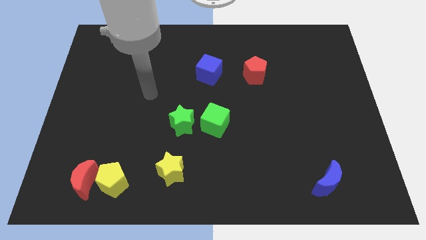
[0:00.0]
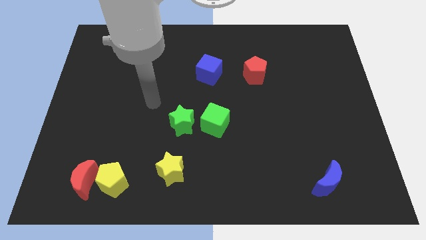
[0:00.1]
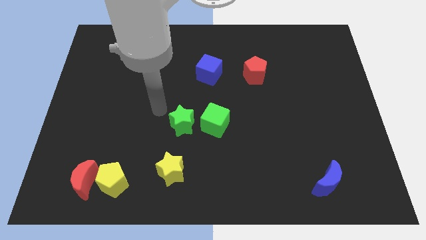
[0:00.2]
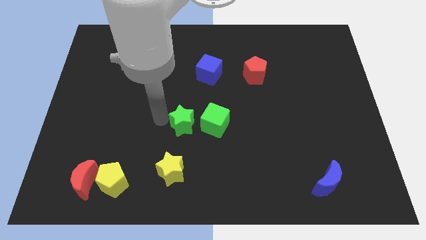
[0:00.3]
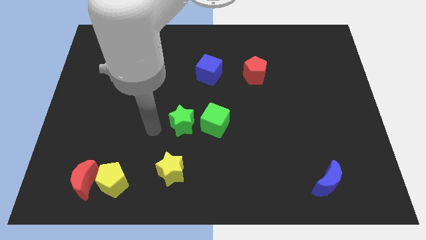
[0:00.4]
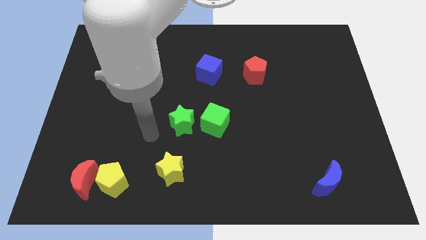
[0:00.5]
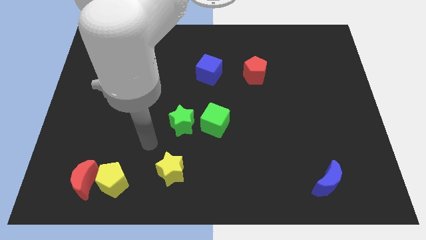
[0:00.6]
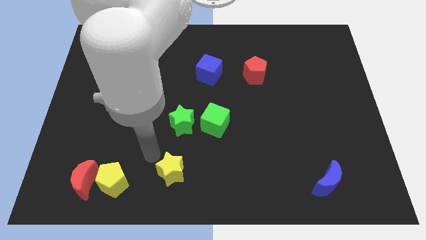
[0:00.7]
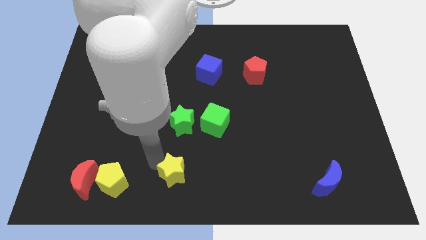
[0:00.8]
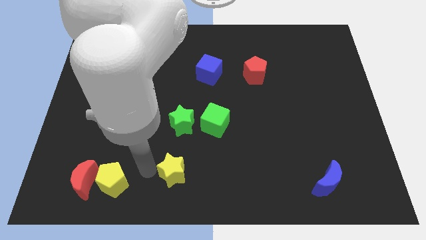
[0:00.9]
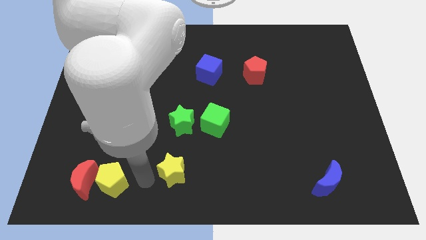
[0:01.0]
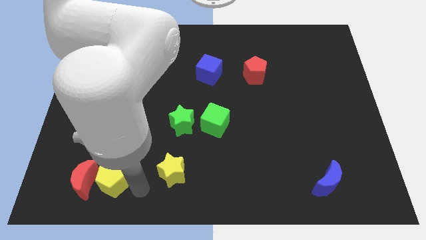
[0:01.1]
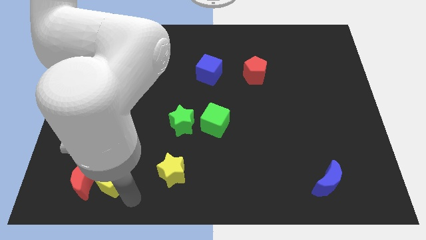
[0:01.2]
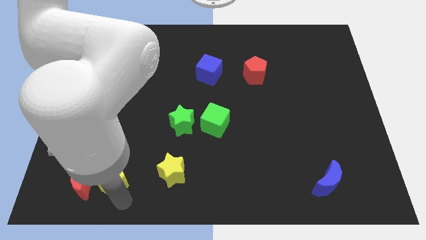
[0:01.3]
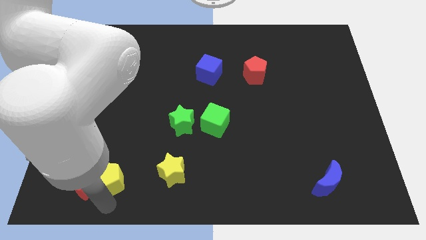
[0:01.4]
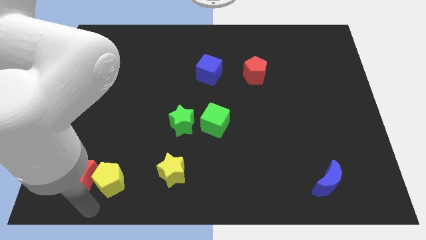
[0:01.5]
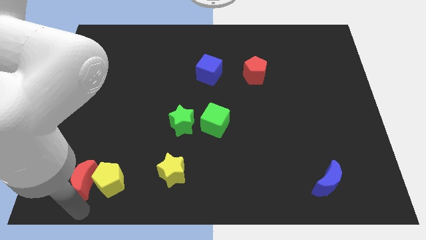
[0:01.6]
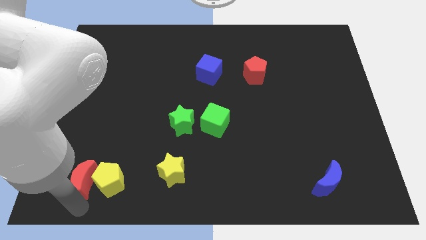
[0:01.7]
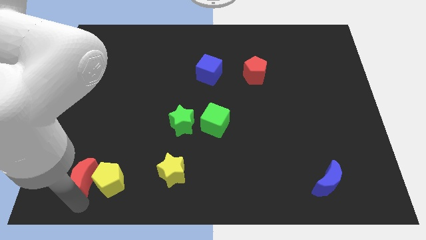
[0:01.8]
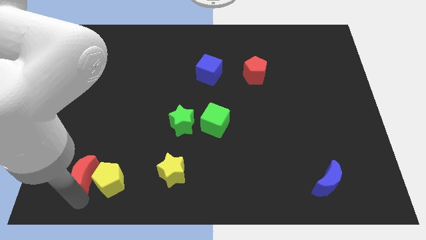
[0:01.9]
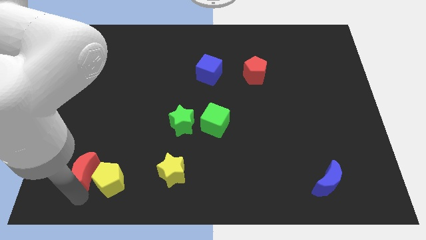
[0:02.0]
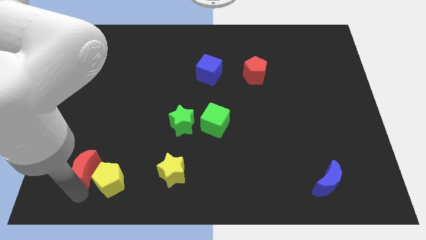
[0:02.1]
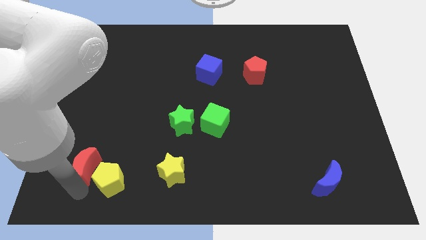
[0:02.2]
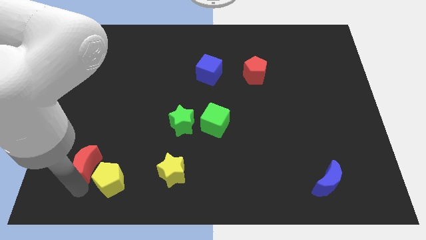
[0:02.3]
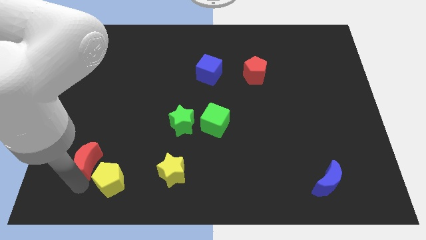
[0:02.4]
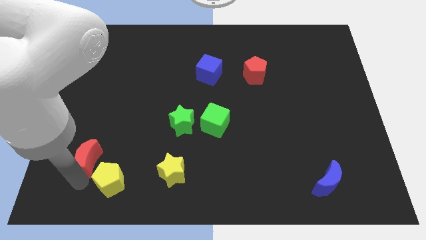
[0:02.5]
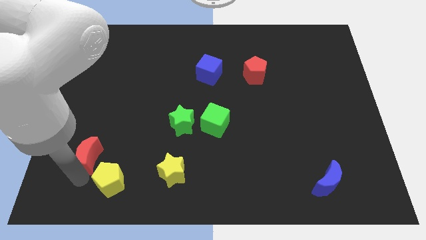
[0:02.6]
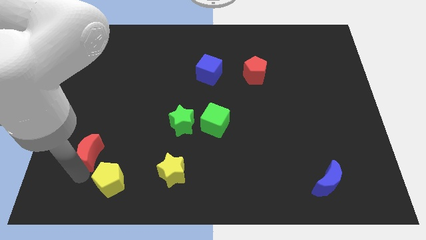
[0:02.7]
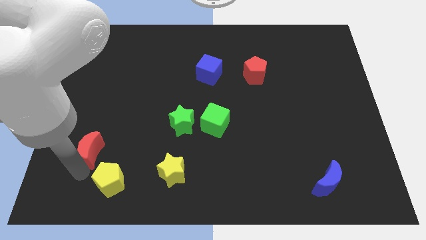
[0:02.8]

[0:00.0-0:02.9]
slightly slide the red moon up

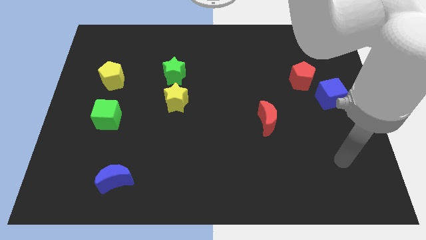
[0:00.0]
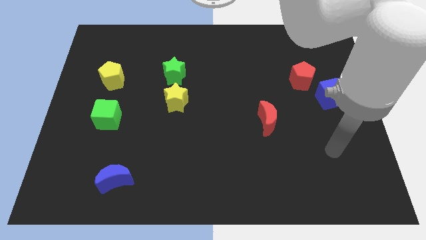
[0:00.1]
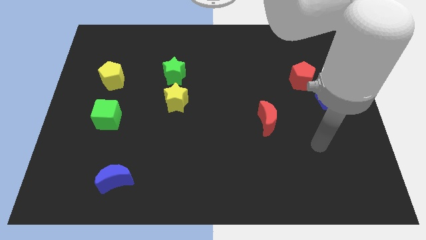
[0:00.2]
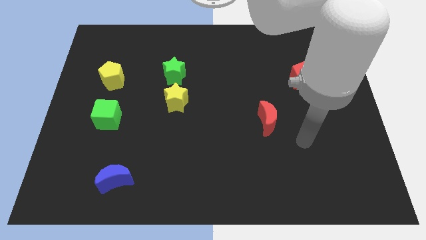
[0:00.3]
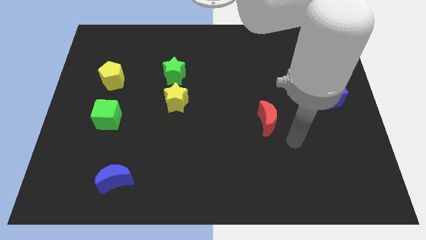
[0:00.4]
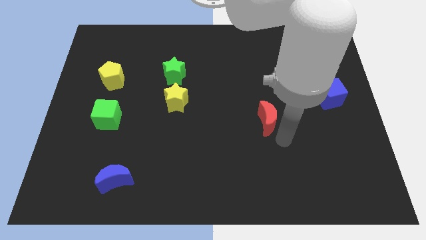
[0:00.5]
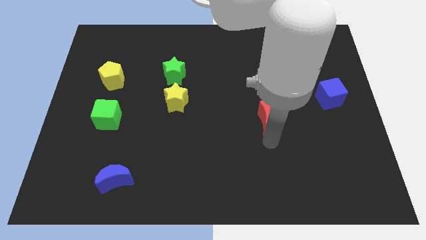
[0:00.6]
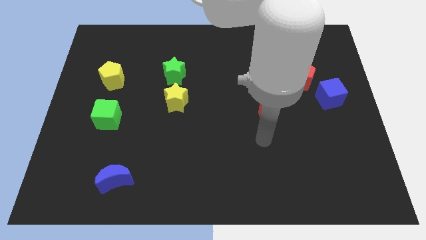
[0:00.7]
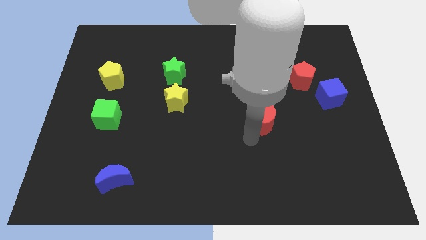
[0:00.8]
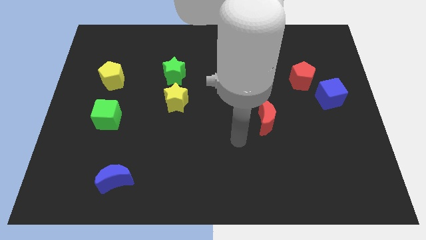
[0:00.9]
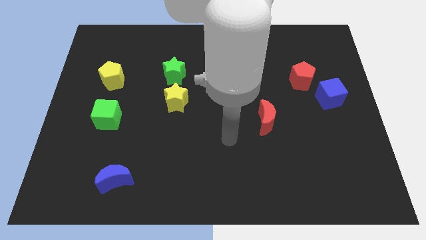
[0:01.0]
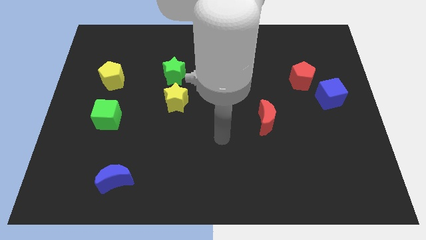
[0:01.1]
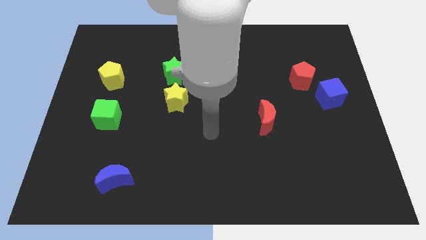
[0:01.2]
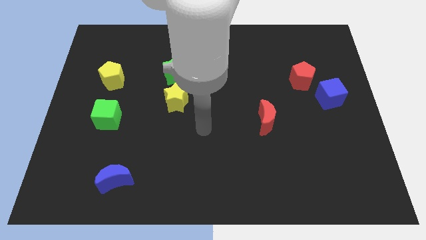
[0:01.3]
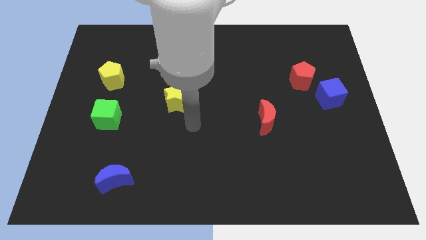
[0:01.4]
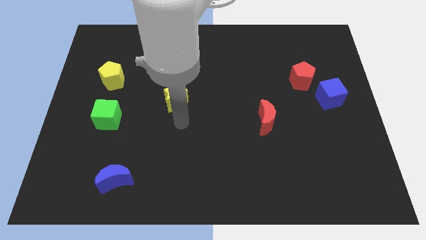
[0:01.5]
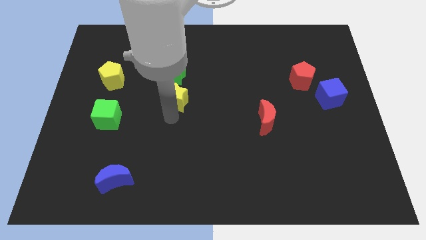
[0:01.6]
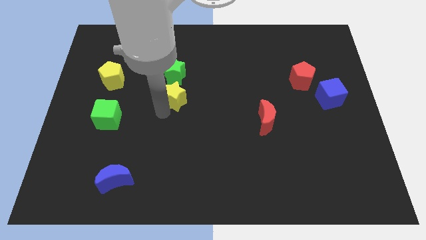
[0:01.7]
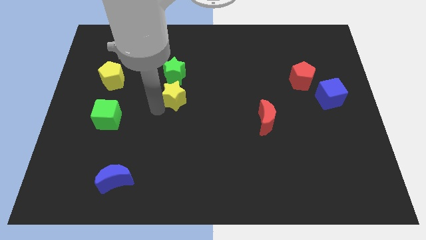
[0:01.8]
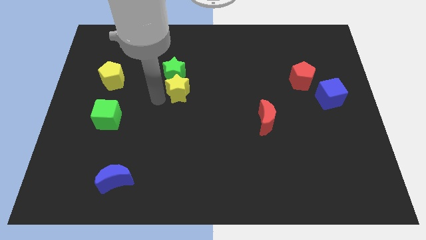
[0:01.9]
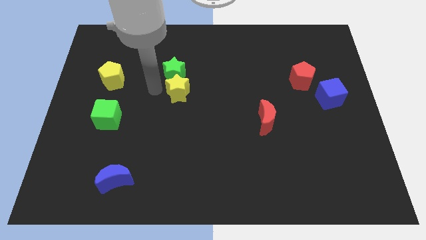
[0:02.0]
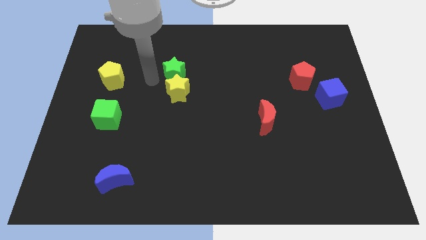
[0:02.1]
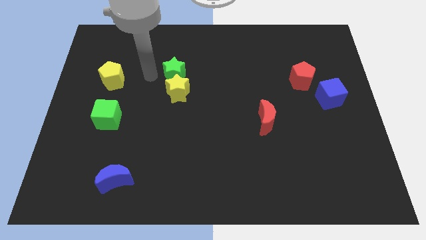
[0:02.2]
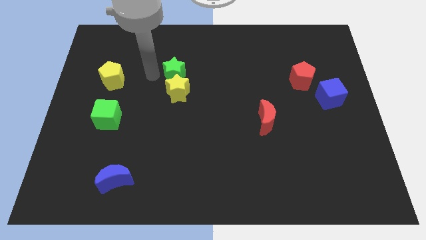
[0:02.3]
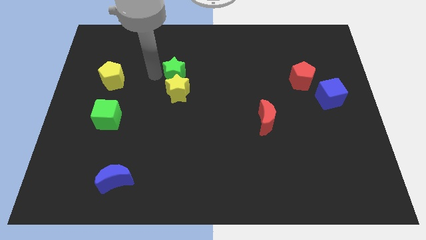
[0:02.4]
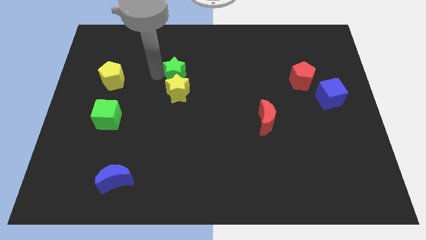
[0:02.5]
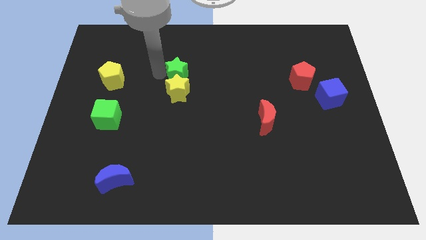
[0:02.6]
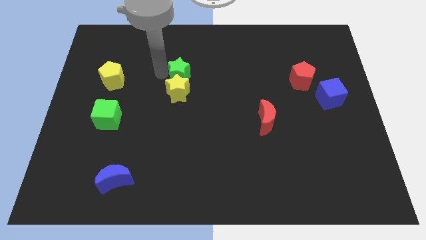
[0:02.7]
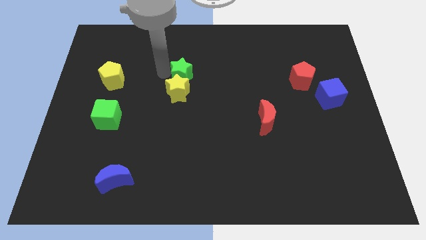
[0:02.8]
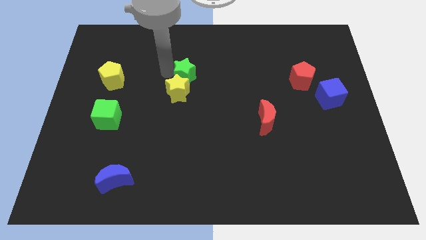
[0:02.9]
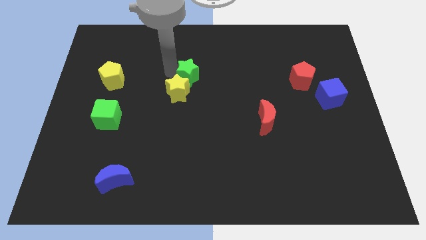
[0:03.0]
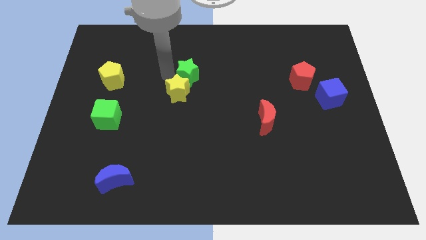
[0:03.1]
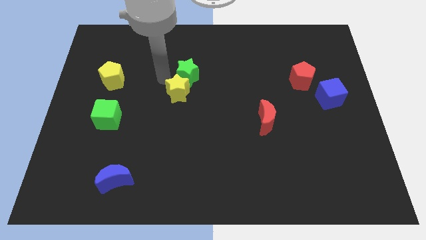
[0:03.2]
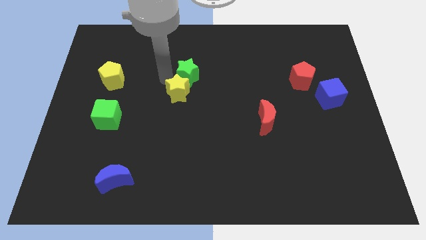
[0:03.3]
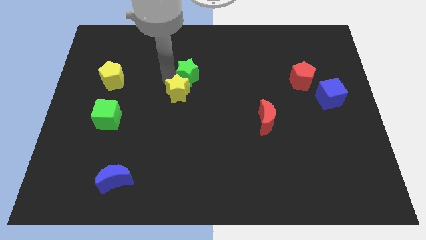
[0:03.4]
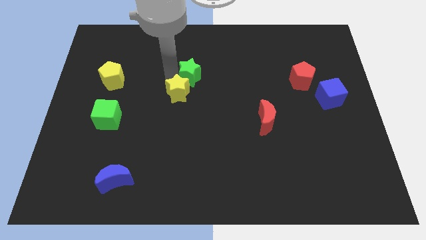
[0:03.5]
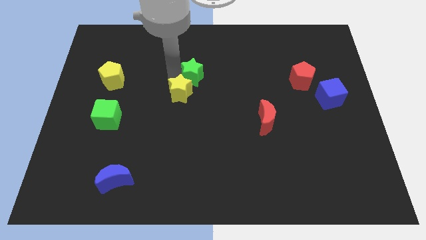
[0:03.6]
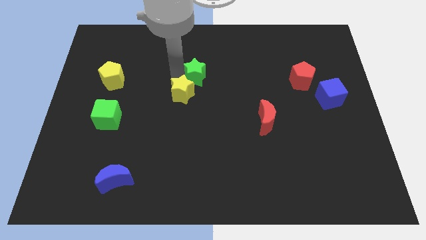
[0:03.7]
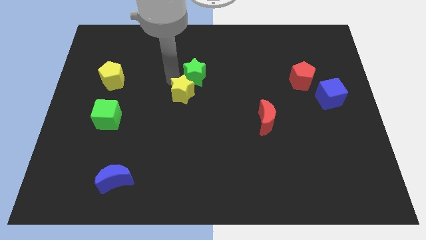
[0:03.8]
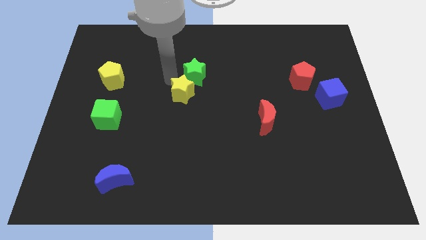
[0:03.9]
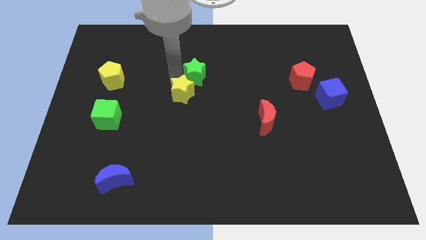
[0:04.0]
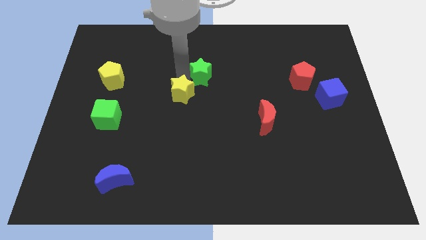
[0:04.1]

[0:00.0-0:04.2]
move the green star a little bit right

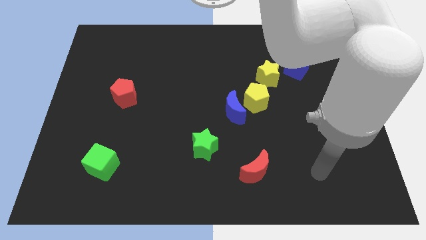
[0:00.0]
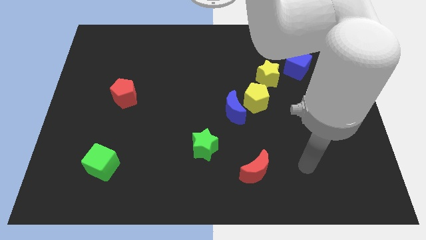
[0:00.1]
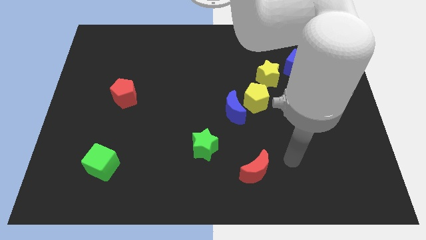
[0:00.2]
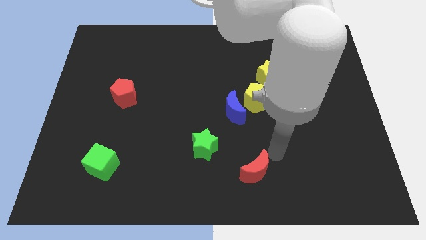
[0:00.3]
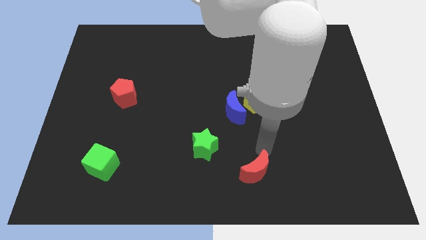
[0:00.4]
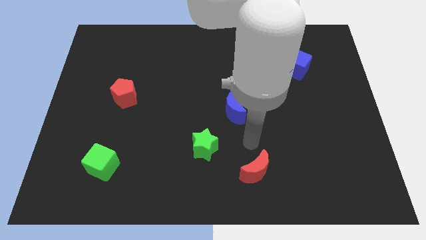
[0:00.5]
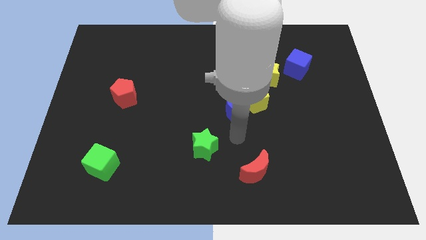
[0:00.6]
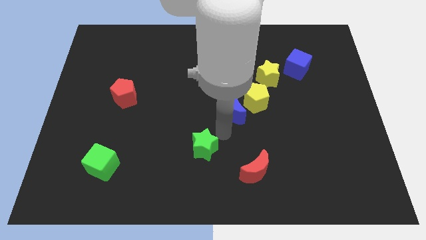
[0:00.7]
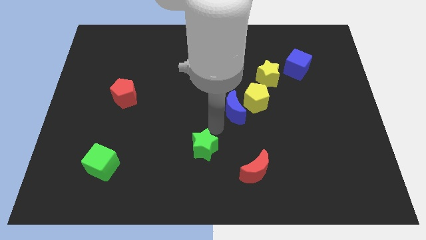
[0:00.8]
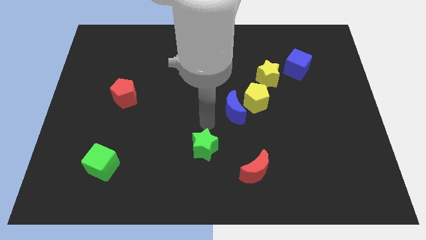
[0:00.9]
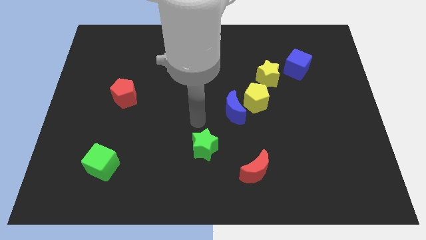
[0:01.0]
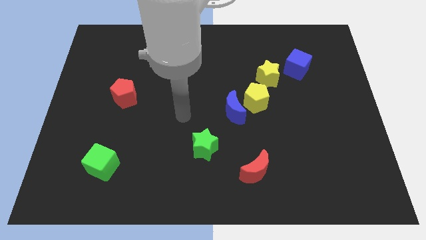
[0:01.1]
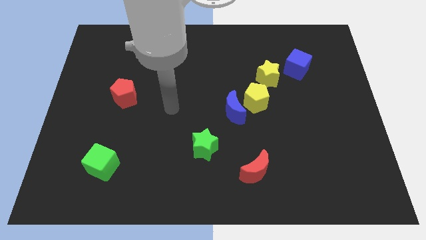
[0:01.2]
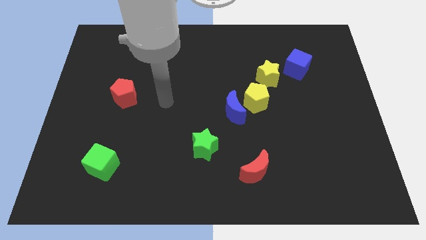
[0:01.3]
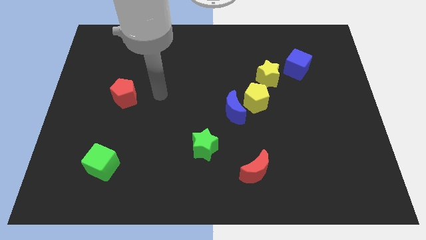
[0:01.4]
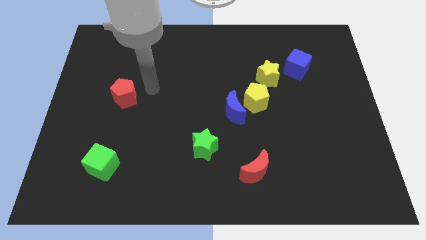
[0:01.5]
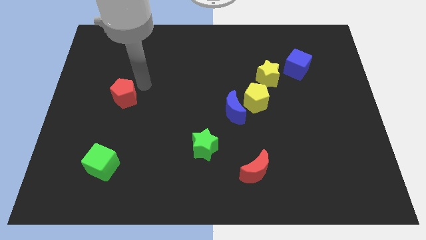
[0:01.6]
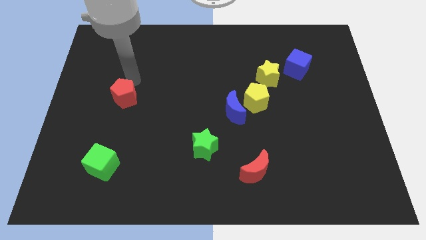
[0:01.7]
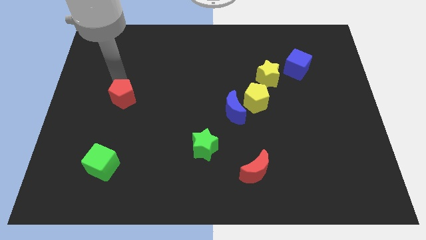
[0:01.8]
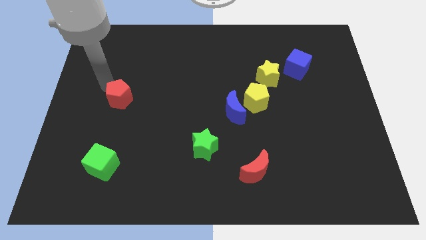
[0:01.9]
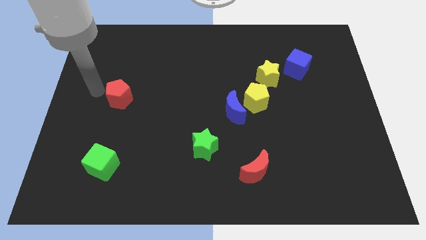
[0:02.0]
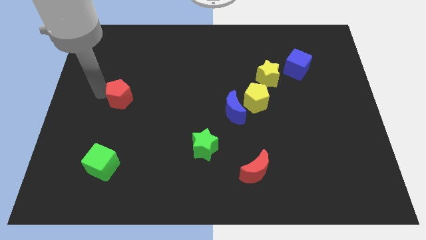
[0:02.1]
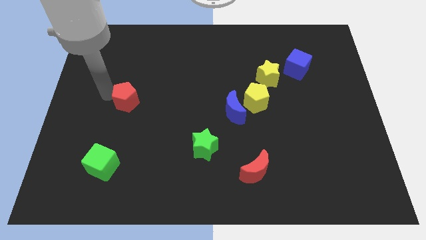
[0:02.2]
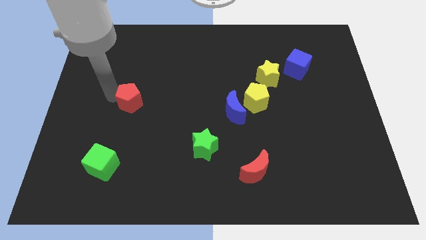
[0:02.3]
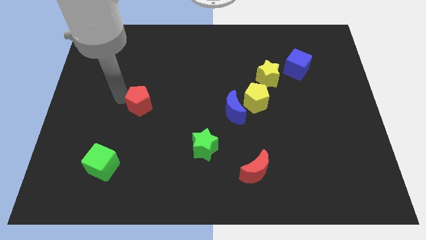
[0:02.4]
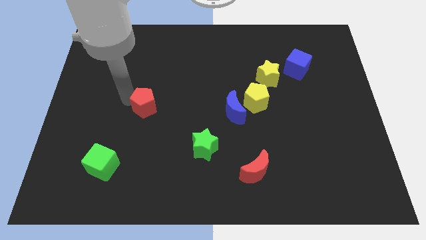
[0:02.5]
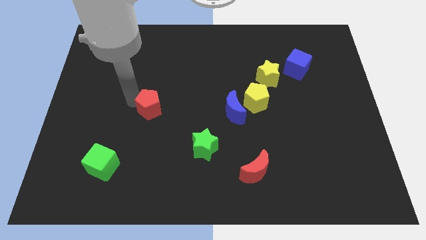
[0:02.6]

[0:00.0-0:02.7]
push the red pentagon a little bit down and to the right diagonally
